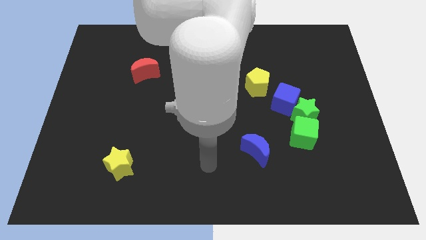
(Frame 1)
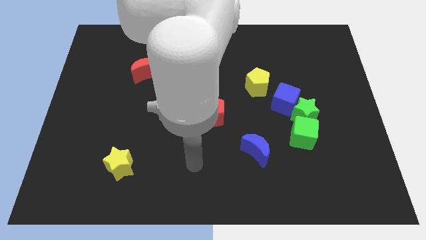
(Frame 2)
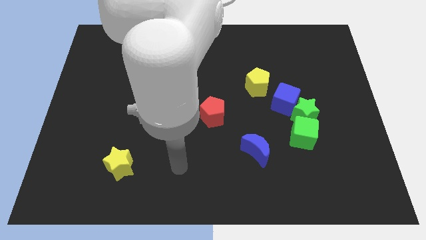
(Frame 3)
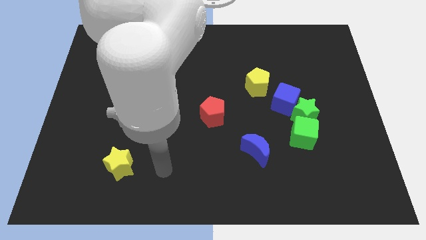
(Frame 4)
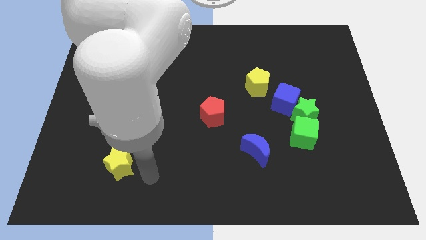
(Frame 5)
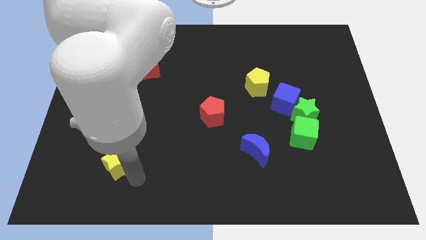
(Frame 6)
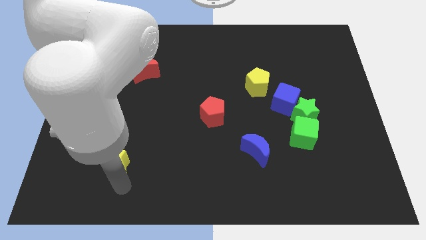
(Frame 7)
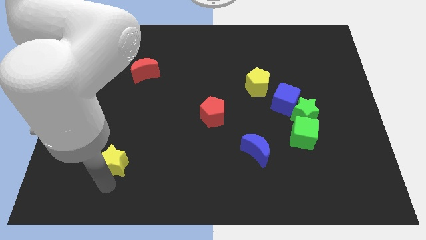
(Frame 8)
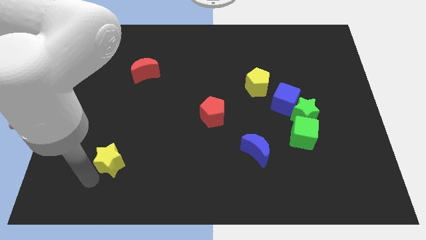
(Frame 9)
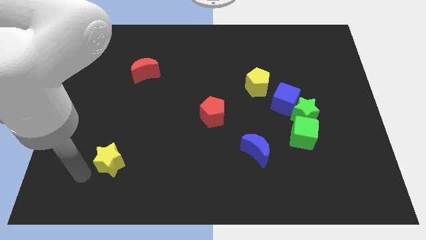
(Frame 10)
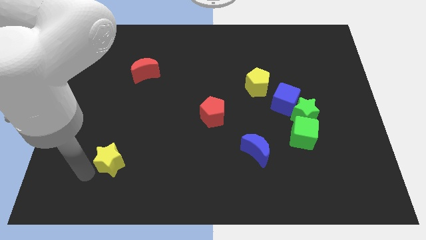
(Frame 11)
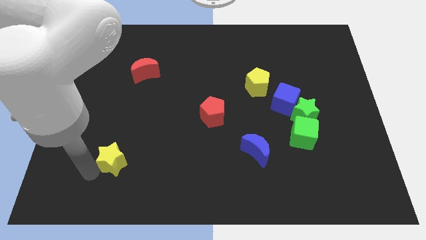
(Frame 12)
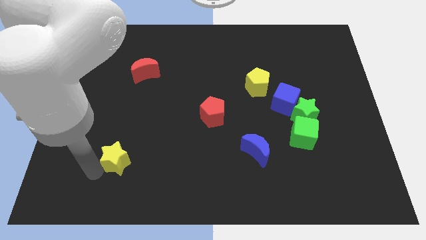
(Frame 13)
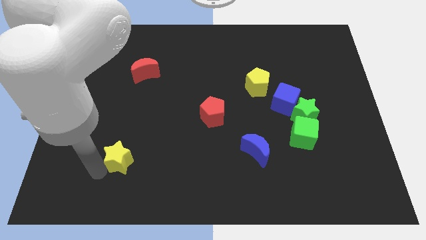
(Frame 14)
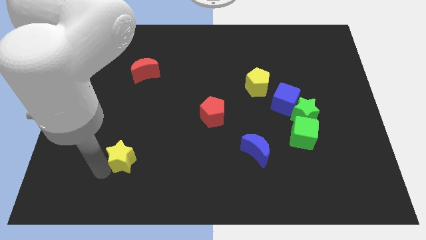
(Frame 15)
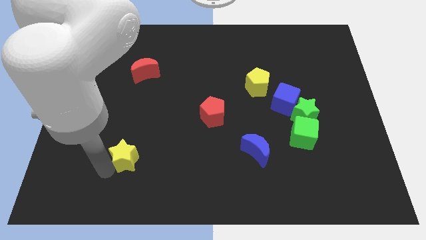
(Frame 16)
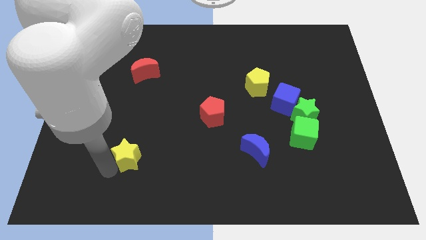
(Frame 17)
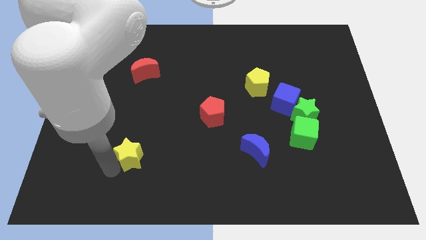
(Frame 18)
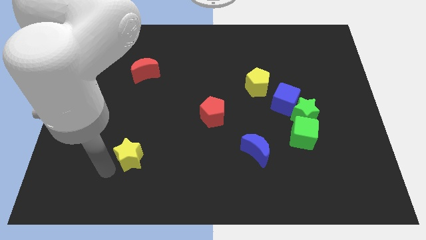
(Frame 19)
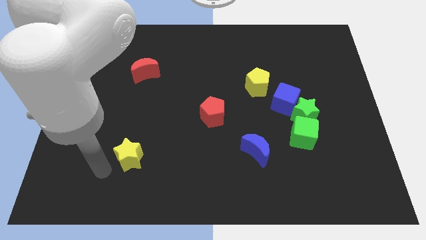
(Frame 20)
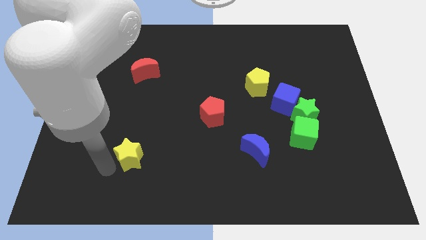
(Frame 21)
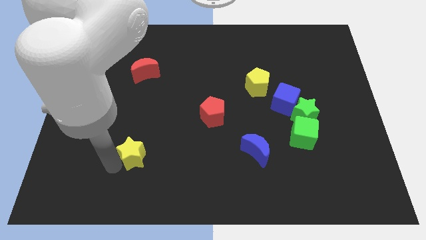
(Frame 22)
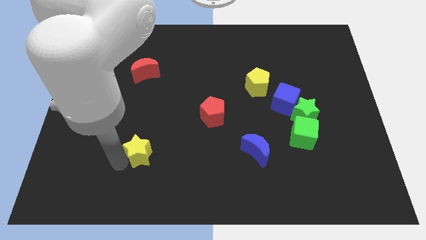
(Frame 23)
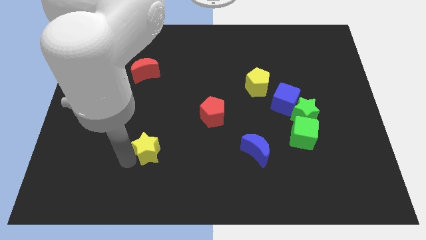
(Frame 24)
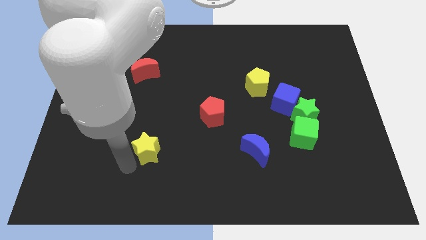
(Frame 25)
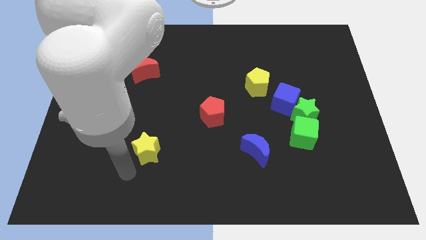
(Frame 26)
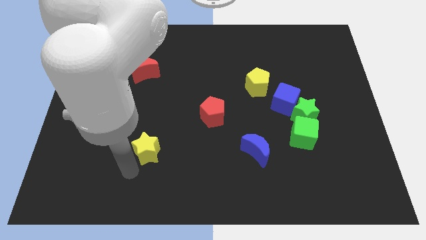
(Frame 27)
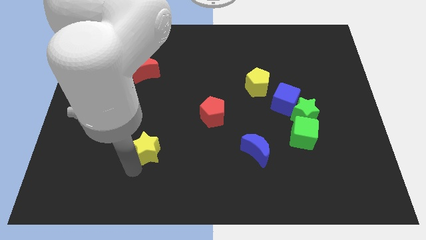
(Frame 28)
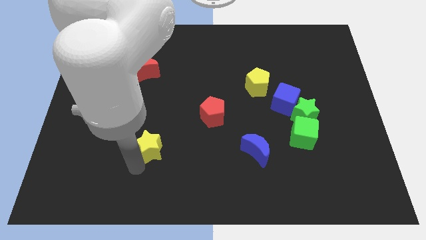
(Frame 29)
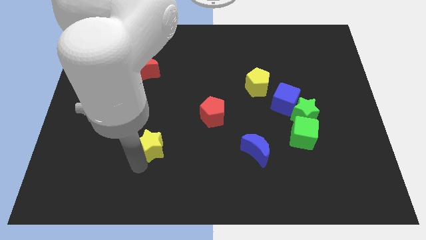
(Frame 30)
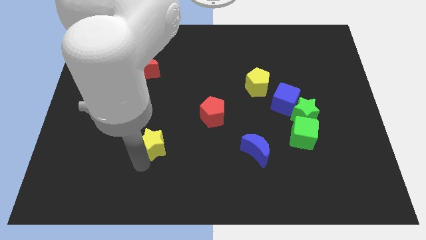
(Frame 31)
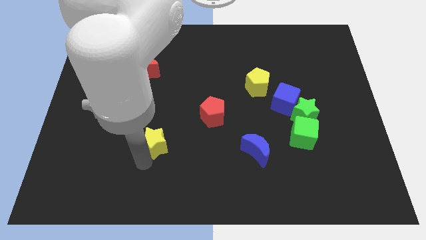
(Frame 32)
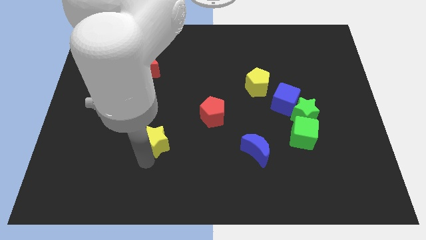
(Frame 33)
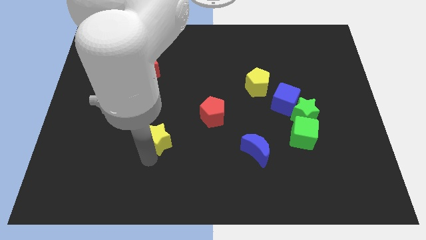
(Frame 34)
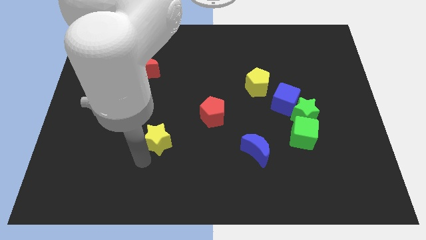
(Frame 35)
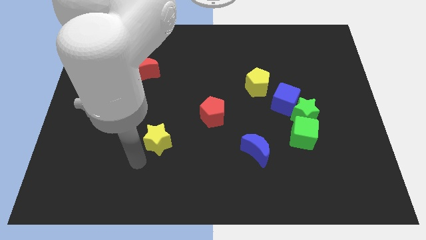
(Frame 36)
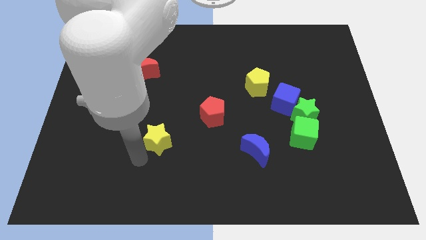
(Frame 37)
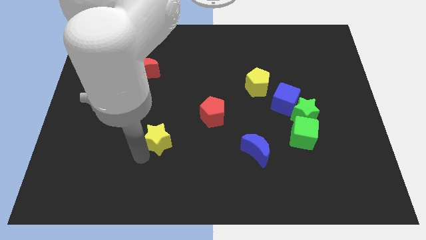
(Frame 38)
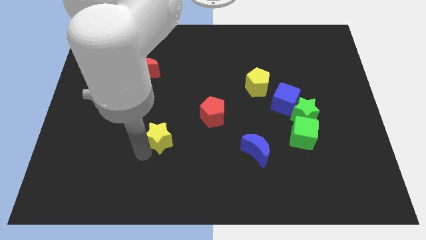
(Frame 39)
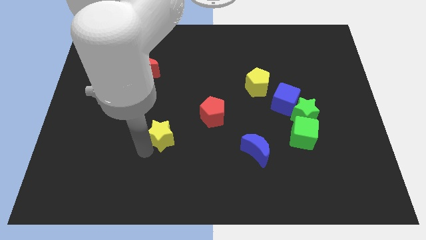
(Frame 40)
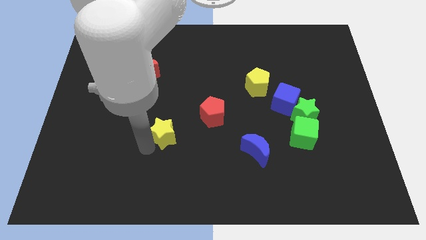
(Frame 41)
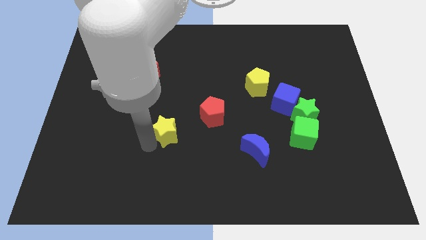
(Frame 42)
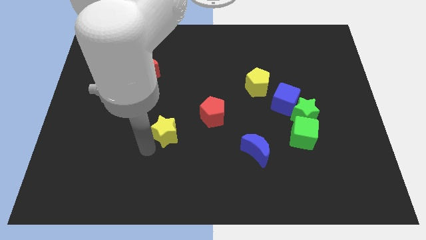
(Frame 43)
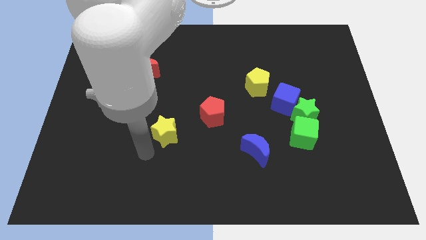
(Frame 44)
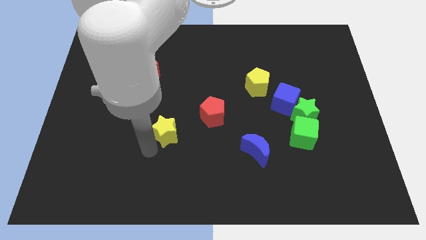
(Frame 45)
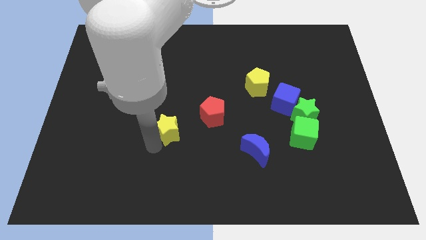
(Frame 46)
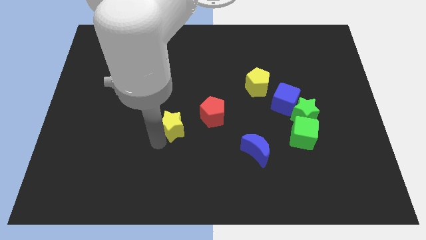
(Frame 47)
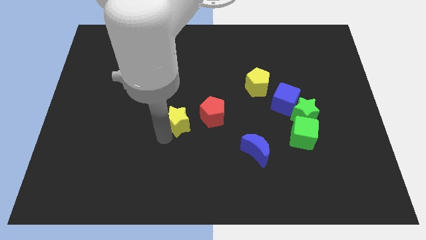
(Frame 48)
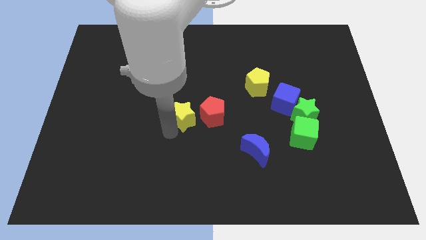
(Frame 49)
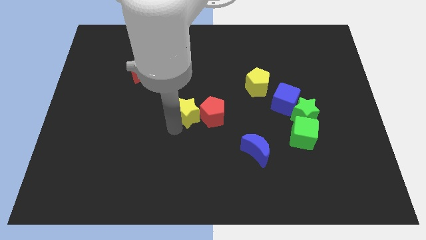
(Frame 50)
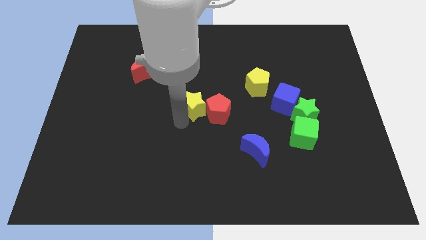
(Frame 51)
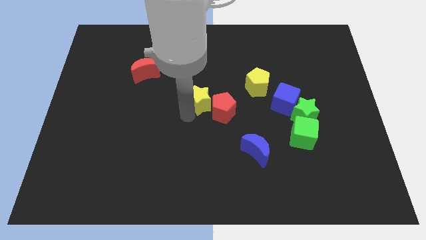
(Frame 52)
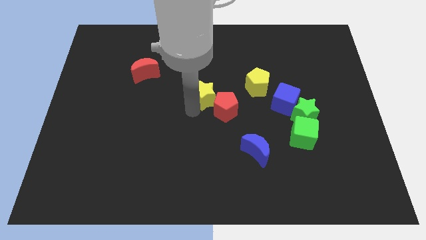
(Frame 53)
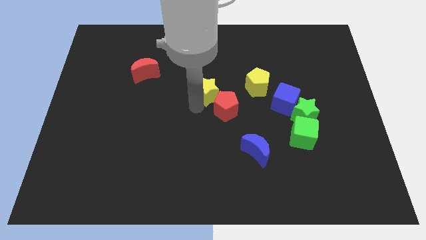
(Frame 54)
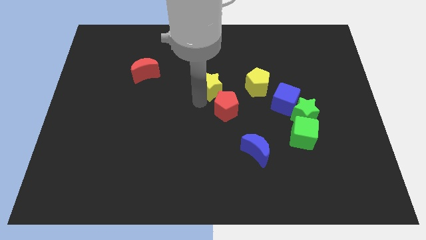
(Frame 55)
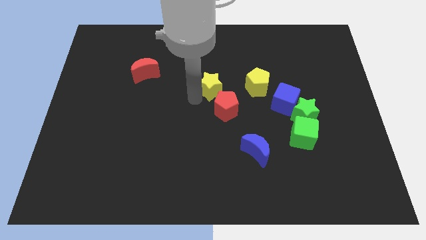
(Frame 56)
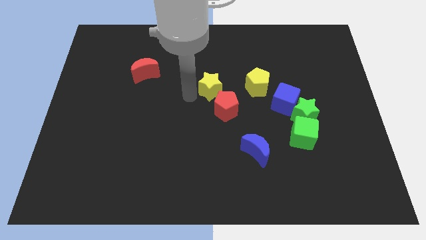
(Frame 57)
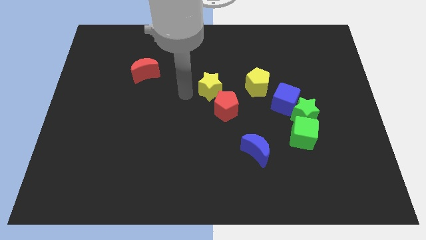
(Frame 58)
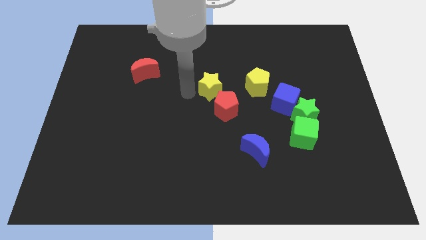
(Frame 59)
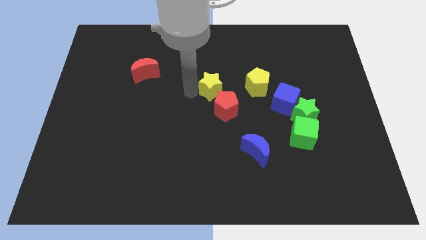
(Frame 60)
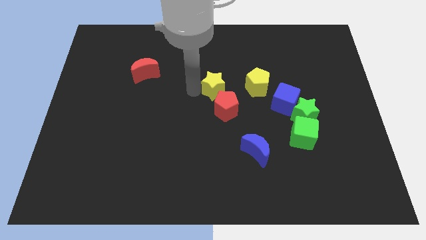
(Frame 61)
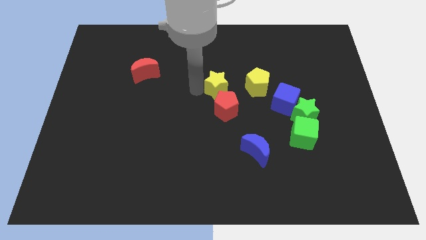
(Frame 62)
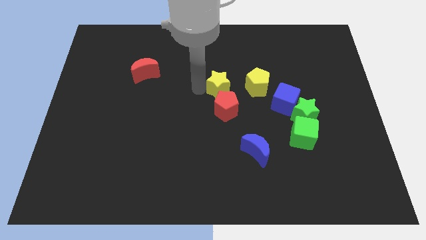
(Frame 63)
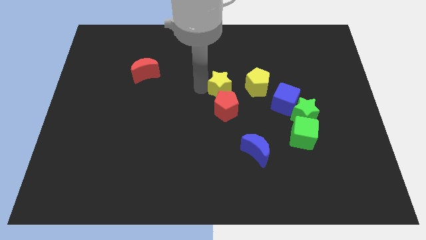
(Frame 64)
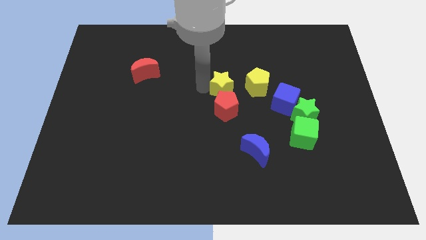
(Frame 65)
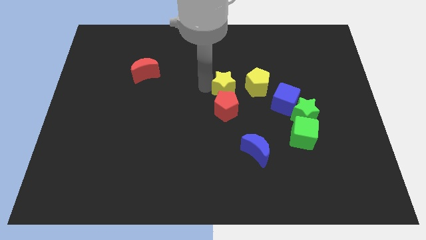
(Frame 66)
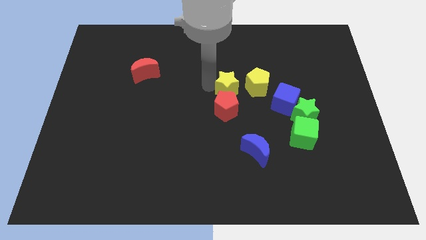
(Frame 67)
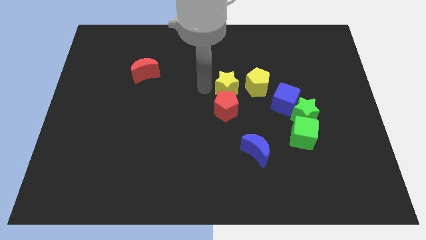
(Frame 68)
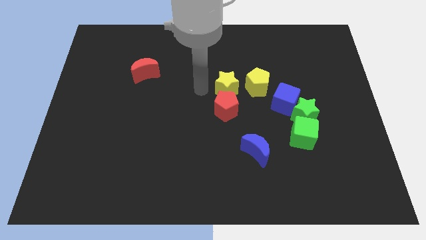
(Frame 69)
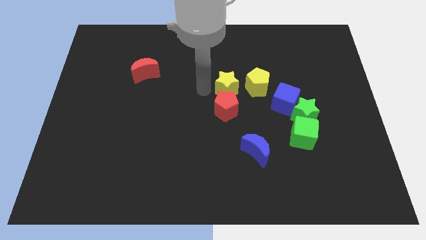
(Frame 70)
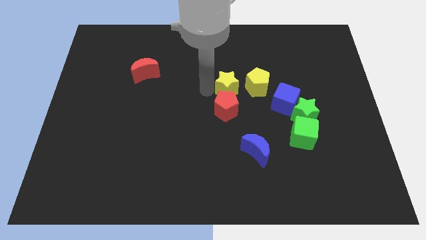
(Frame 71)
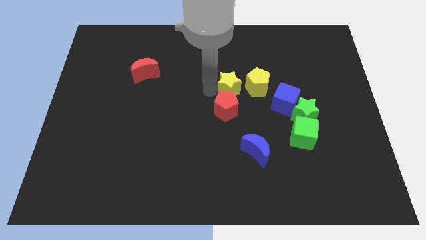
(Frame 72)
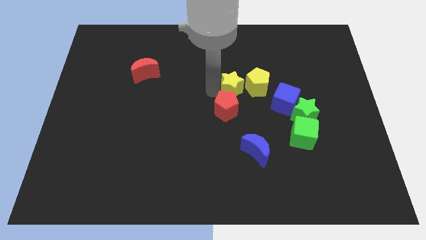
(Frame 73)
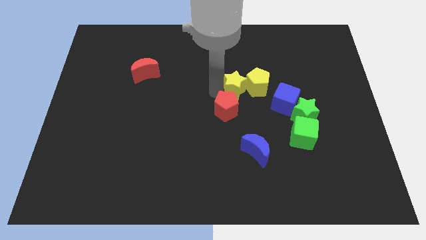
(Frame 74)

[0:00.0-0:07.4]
push the yellow star towards the yellow pentagon
